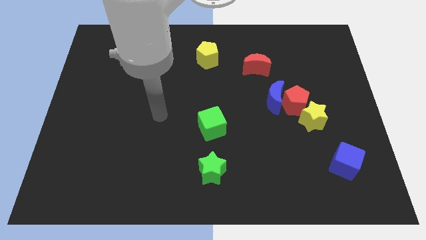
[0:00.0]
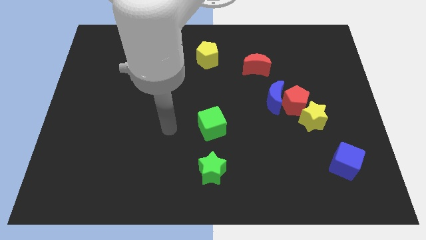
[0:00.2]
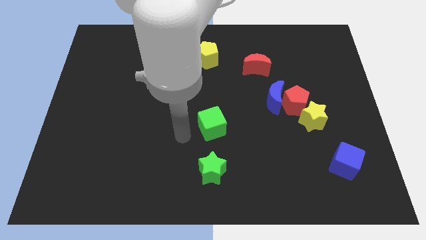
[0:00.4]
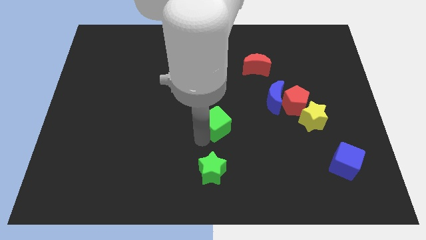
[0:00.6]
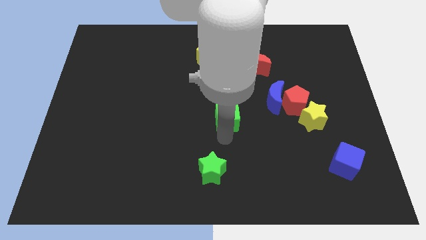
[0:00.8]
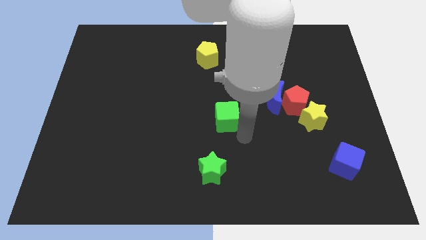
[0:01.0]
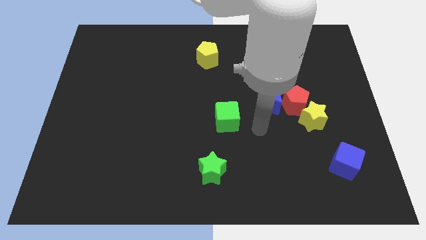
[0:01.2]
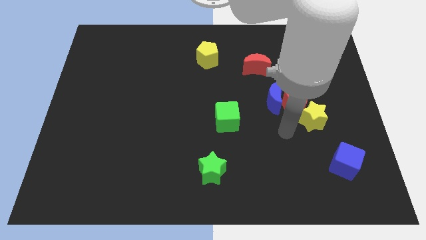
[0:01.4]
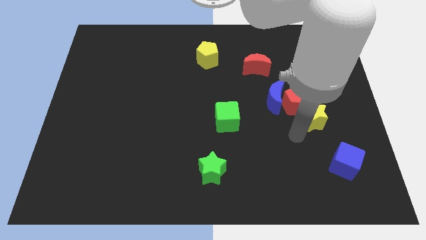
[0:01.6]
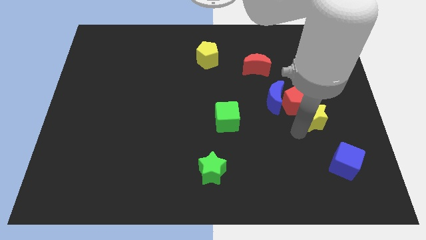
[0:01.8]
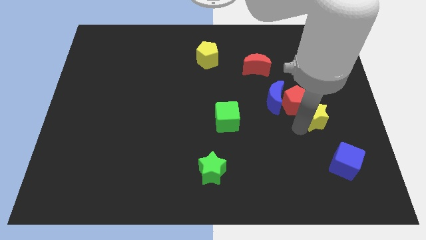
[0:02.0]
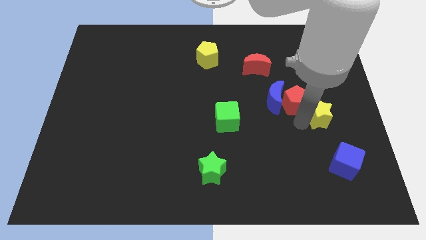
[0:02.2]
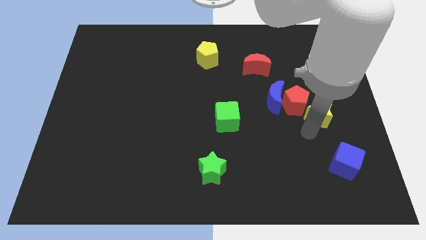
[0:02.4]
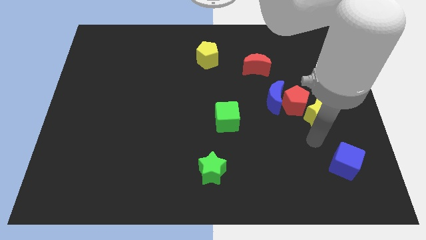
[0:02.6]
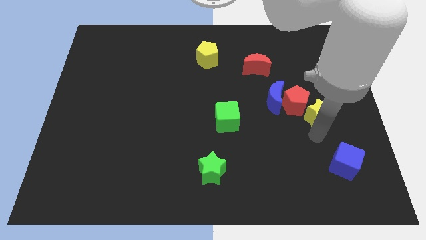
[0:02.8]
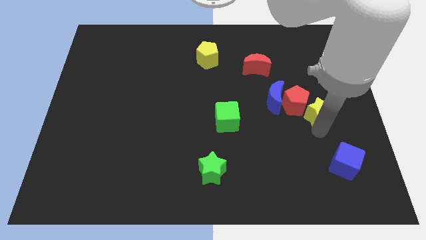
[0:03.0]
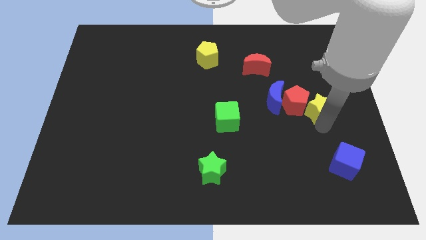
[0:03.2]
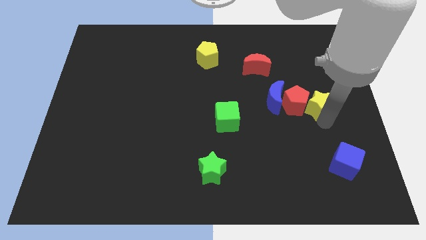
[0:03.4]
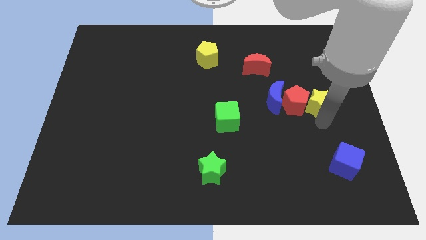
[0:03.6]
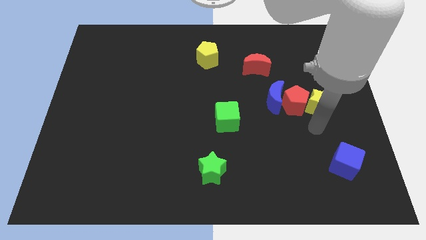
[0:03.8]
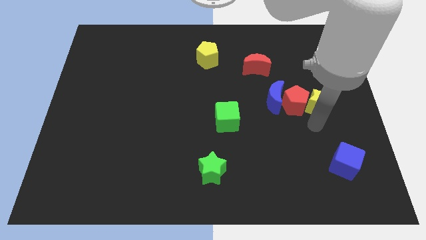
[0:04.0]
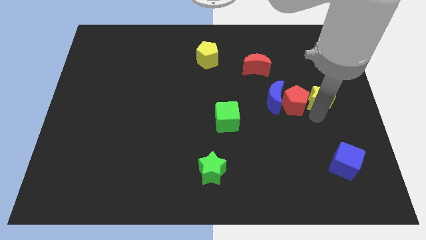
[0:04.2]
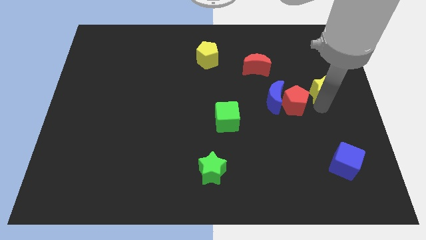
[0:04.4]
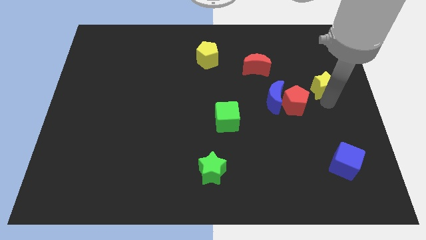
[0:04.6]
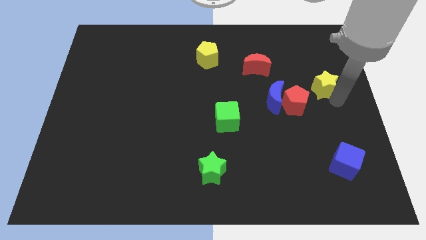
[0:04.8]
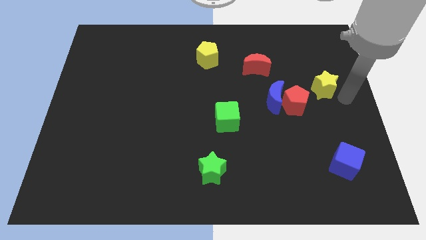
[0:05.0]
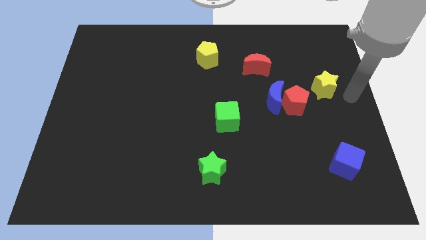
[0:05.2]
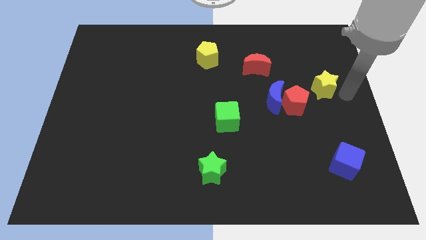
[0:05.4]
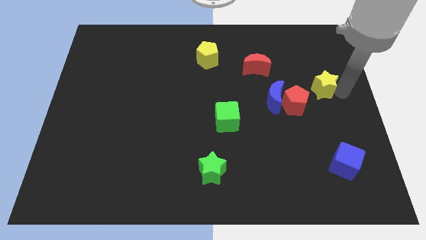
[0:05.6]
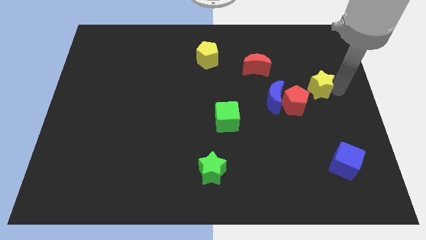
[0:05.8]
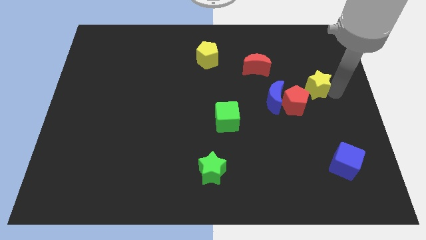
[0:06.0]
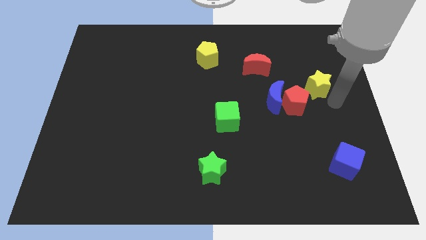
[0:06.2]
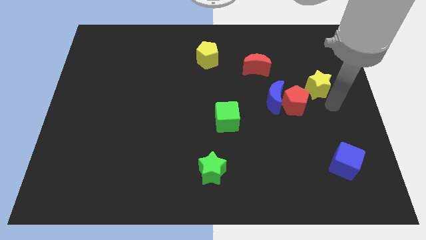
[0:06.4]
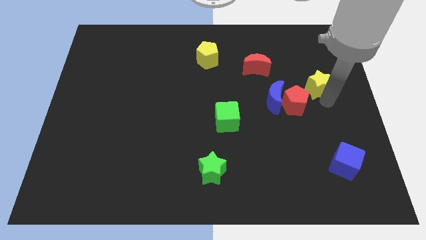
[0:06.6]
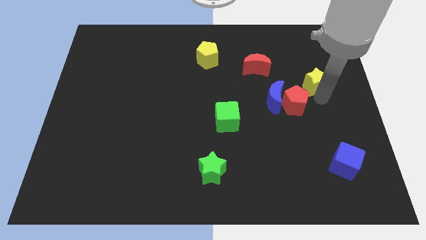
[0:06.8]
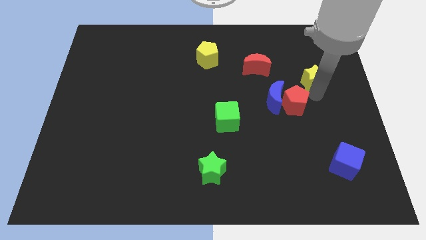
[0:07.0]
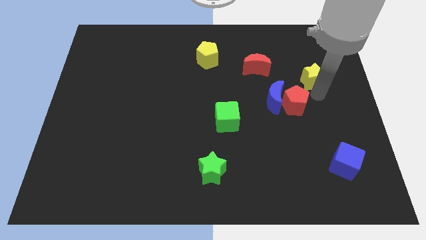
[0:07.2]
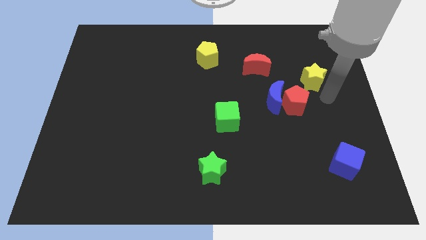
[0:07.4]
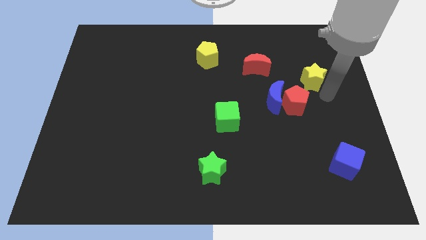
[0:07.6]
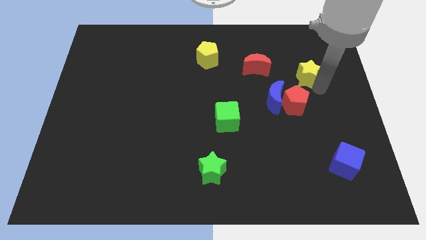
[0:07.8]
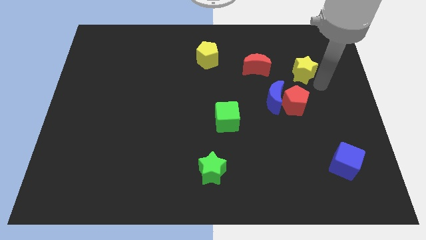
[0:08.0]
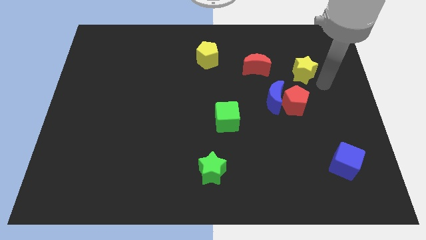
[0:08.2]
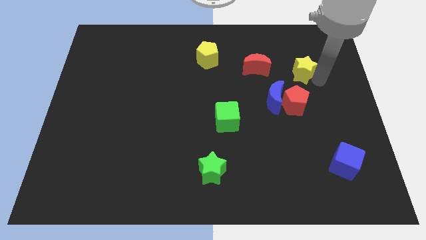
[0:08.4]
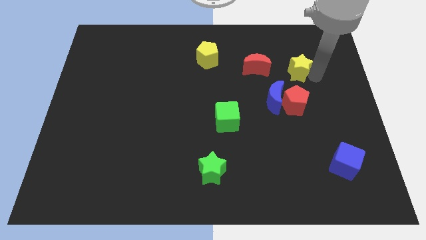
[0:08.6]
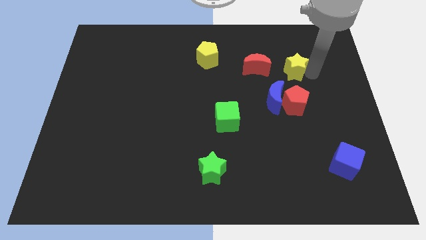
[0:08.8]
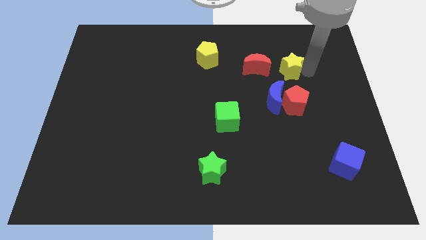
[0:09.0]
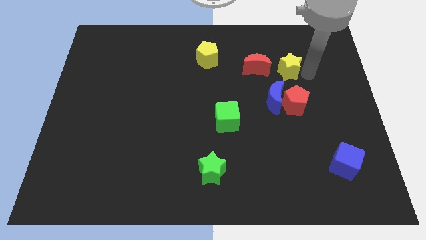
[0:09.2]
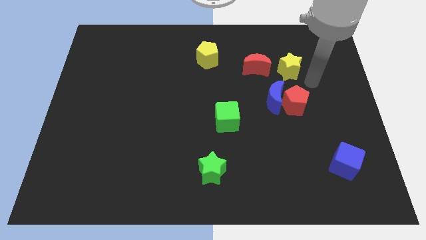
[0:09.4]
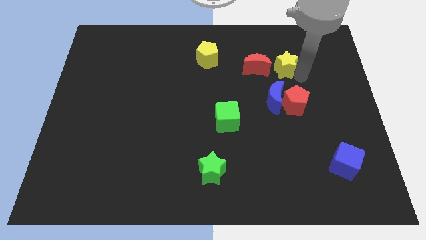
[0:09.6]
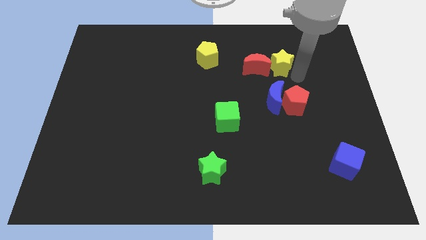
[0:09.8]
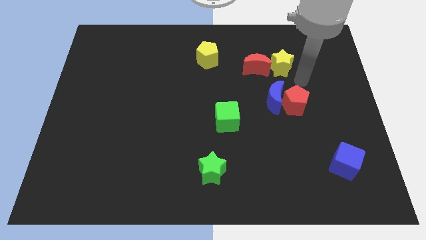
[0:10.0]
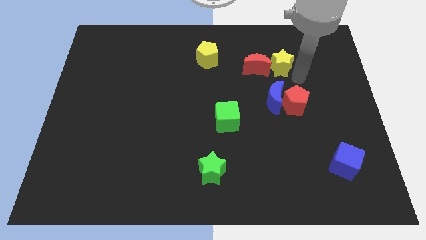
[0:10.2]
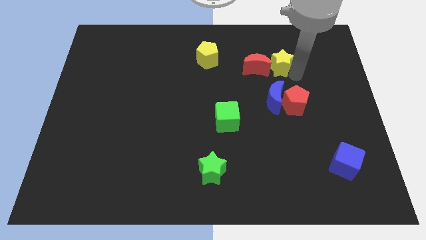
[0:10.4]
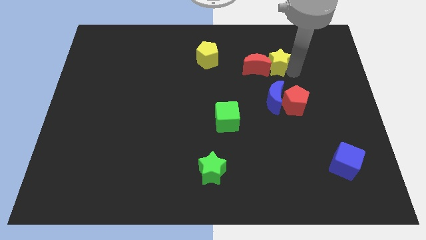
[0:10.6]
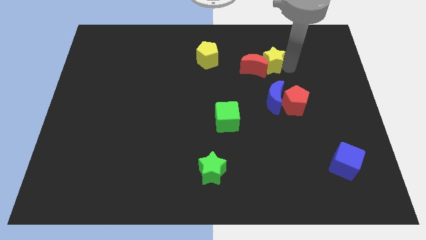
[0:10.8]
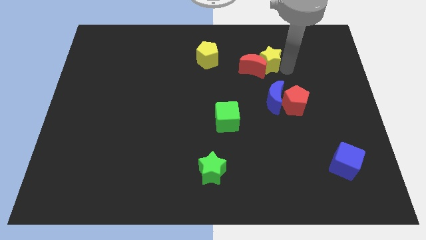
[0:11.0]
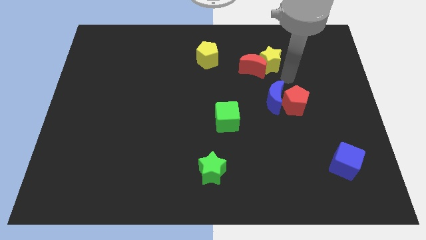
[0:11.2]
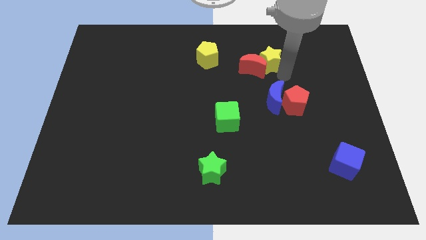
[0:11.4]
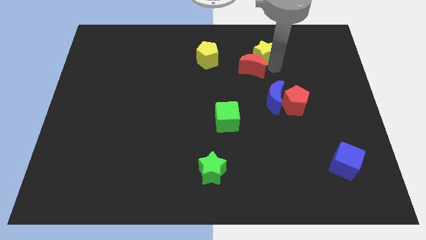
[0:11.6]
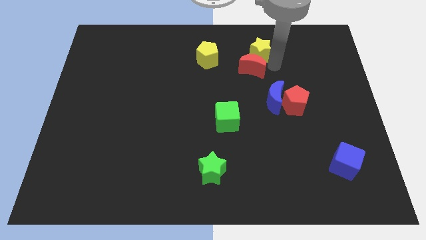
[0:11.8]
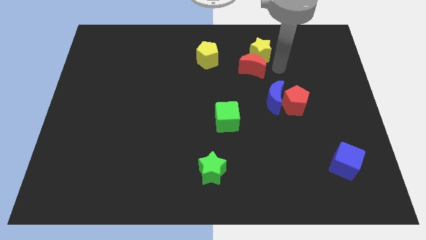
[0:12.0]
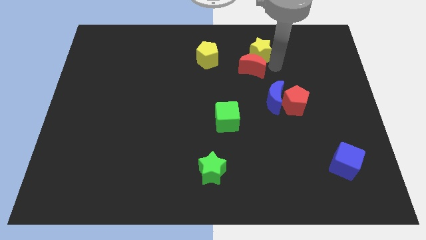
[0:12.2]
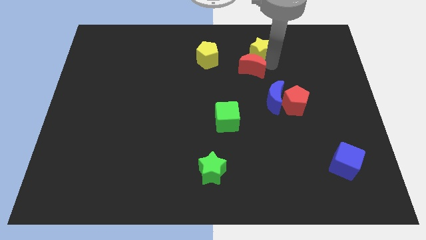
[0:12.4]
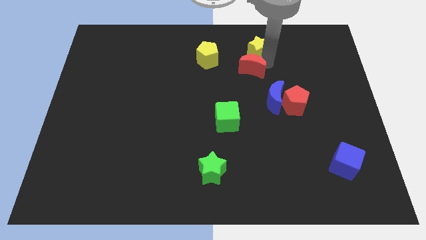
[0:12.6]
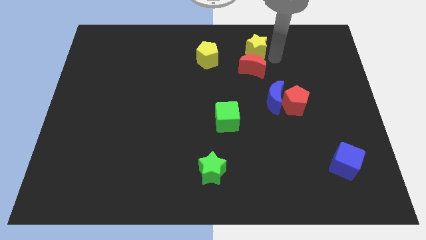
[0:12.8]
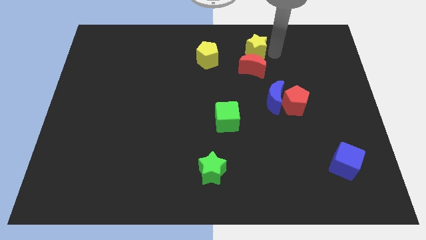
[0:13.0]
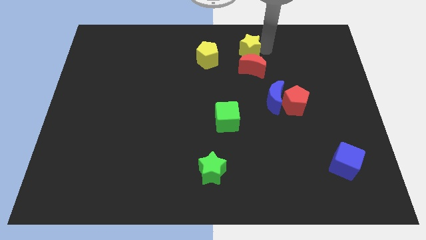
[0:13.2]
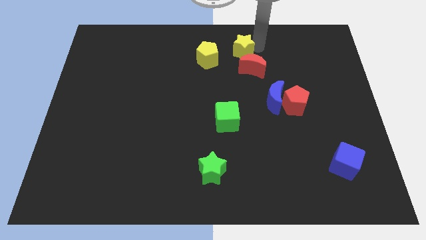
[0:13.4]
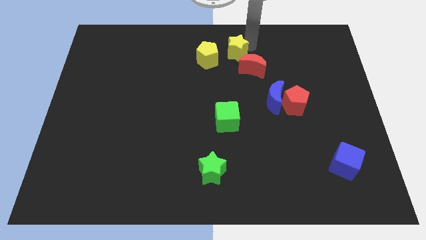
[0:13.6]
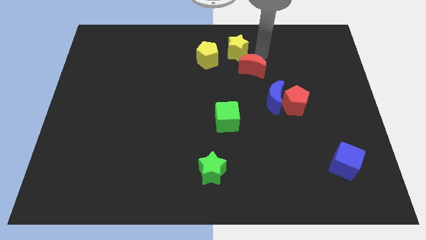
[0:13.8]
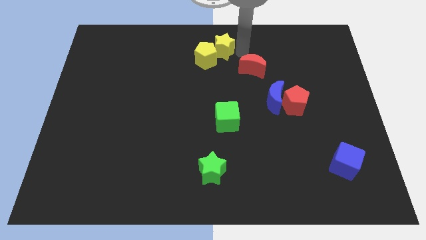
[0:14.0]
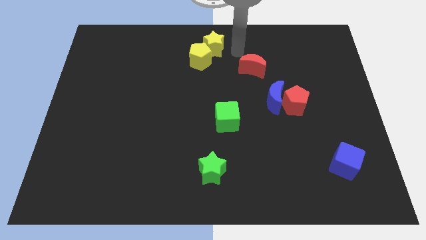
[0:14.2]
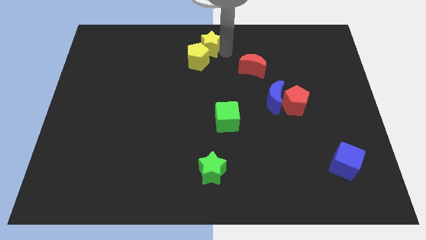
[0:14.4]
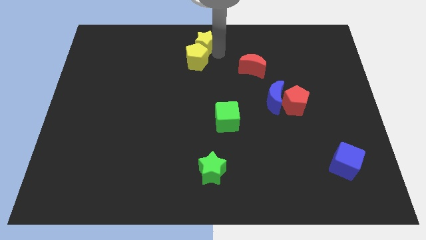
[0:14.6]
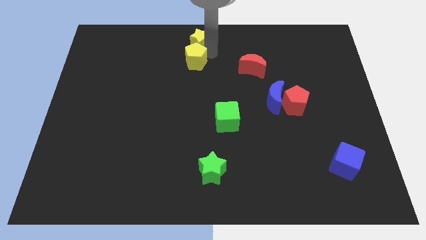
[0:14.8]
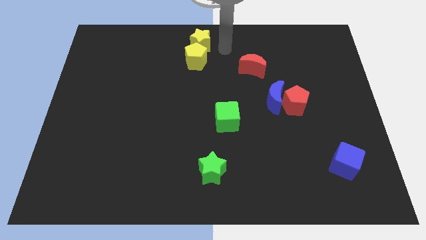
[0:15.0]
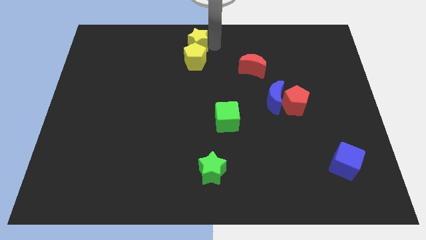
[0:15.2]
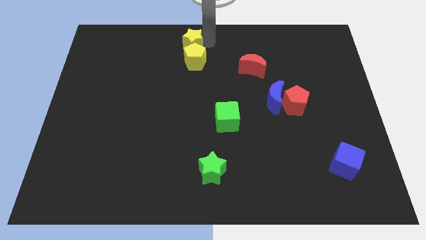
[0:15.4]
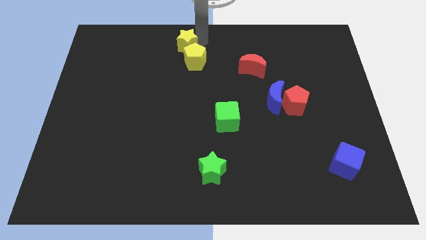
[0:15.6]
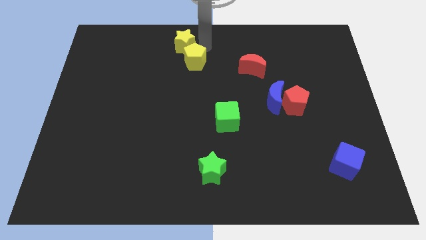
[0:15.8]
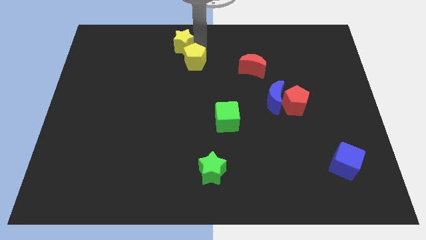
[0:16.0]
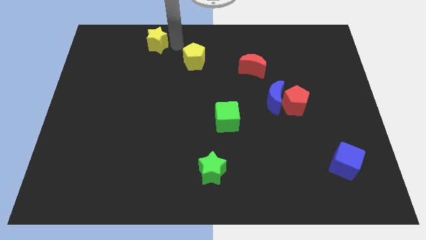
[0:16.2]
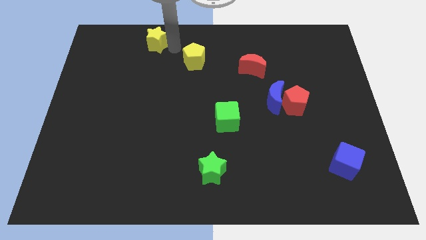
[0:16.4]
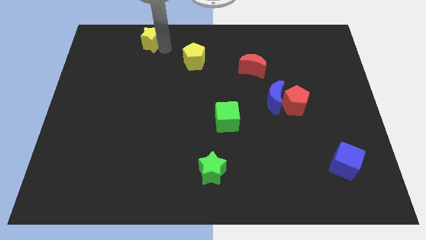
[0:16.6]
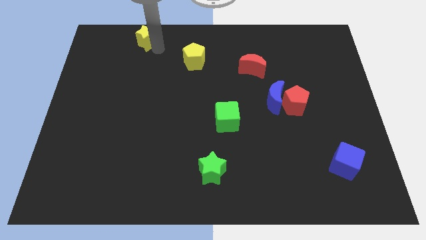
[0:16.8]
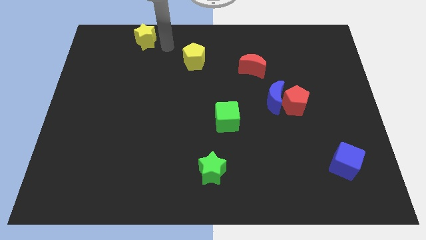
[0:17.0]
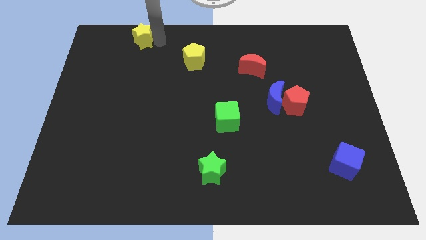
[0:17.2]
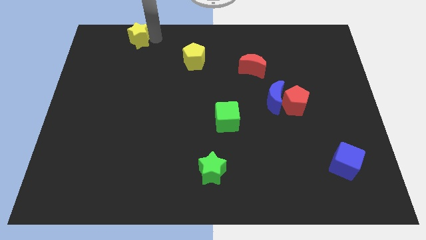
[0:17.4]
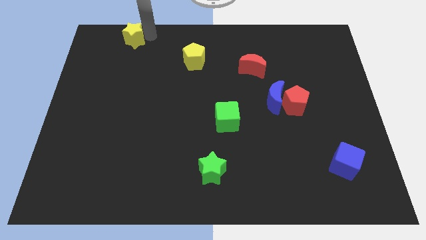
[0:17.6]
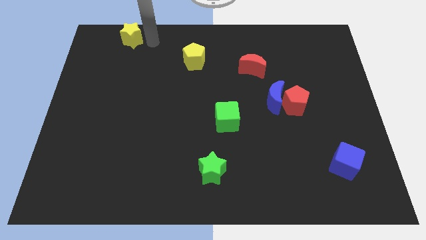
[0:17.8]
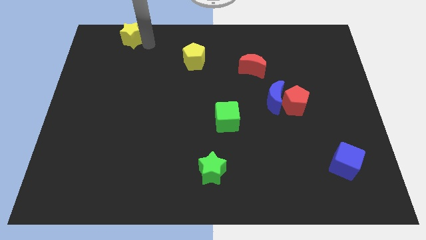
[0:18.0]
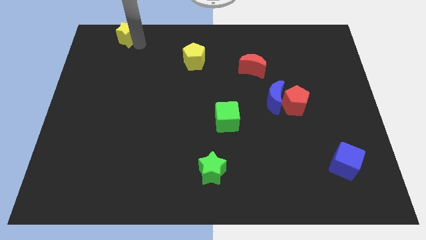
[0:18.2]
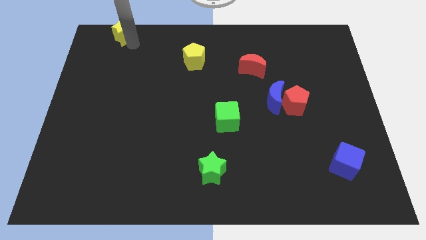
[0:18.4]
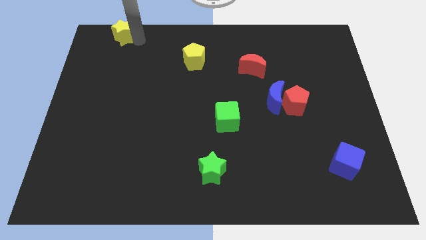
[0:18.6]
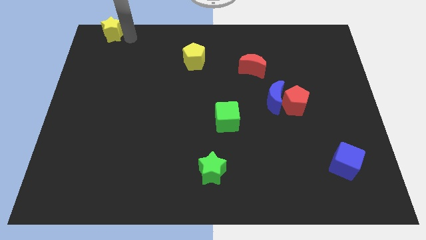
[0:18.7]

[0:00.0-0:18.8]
slide the yellow star to the top left corner
